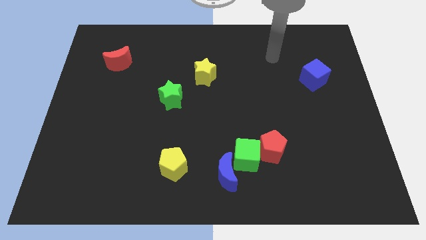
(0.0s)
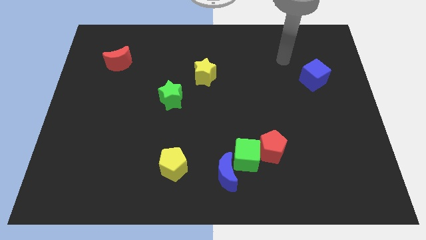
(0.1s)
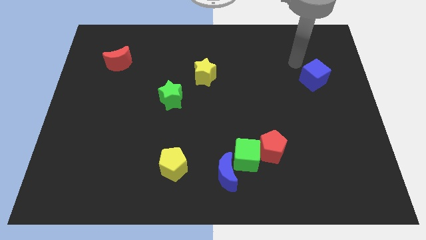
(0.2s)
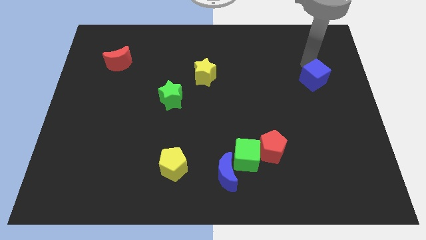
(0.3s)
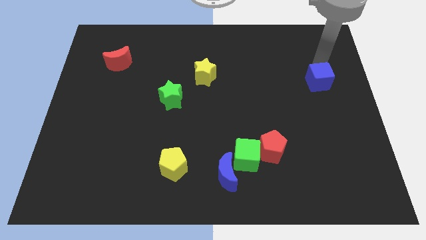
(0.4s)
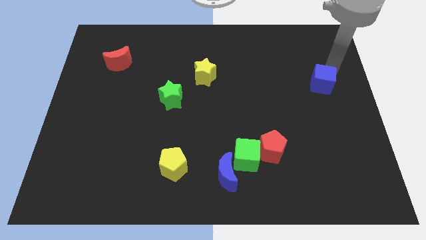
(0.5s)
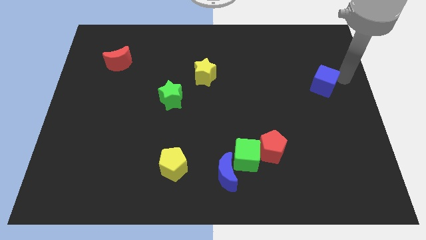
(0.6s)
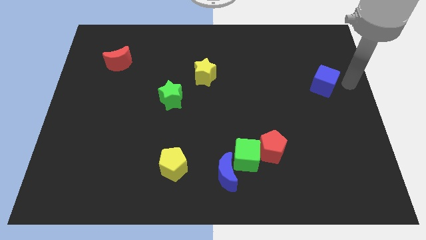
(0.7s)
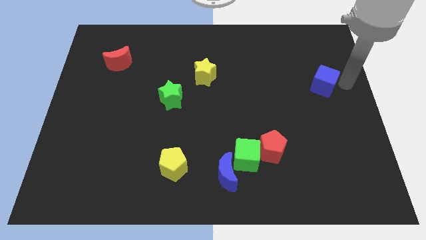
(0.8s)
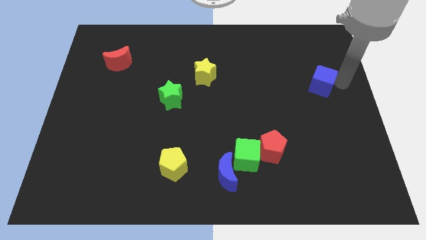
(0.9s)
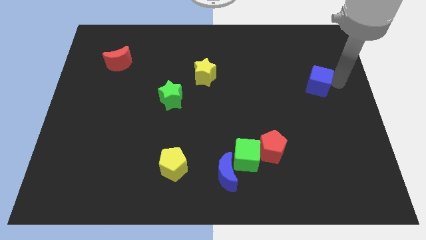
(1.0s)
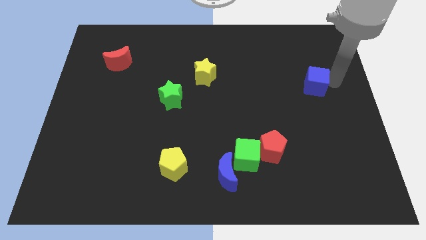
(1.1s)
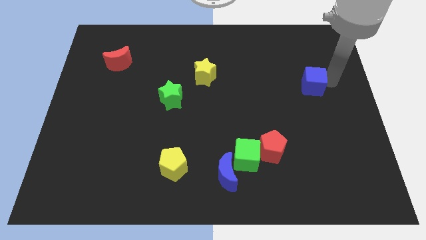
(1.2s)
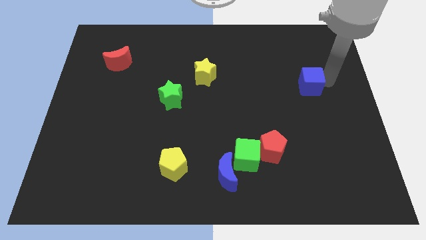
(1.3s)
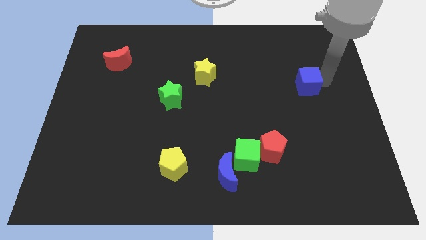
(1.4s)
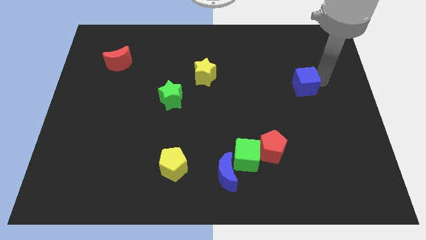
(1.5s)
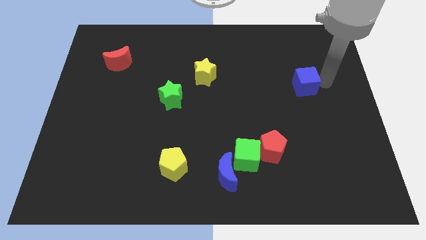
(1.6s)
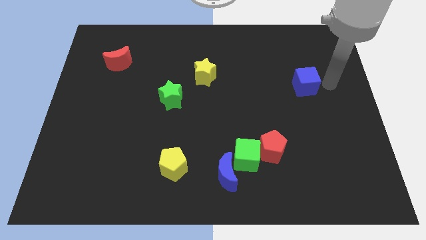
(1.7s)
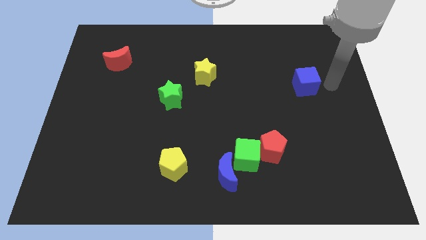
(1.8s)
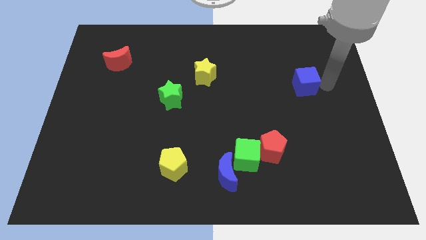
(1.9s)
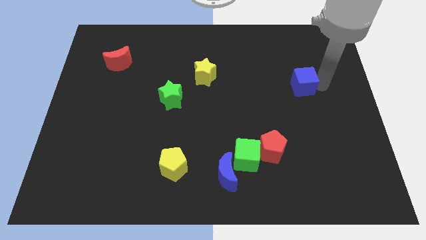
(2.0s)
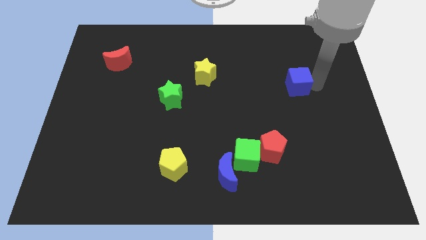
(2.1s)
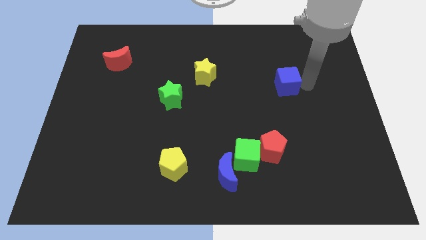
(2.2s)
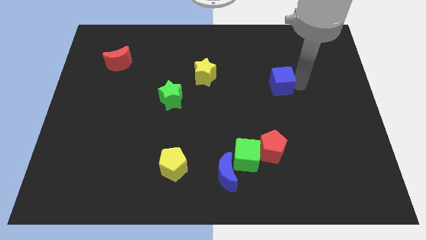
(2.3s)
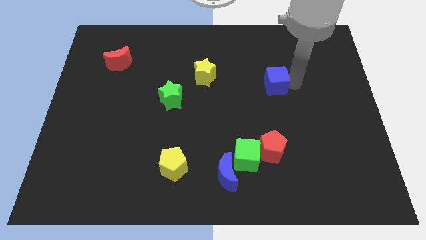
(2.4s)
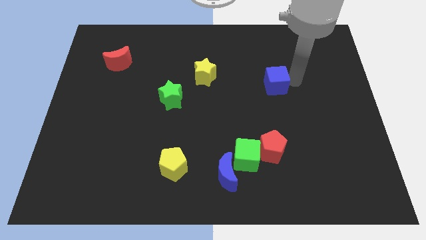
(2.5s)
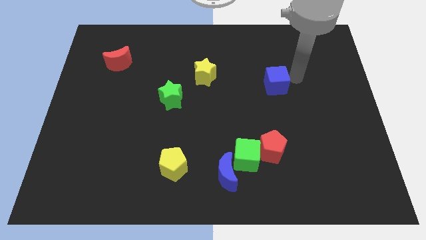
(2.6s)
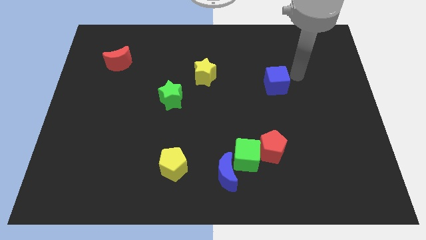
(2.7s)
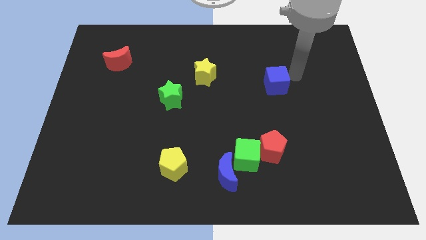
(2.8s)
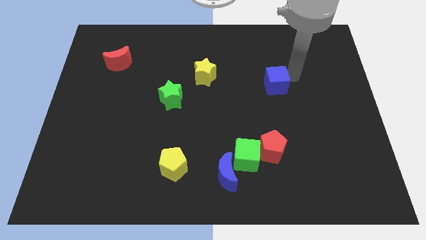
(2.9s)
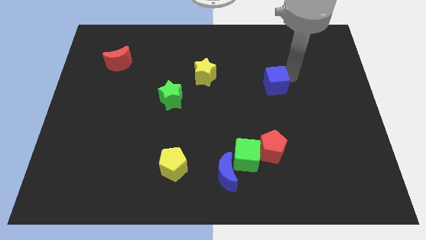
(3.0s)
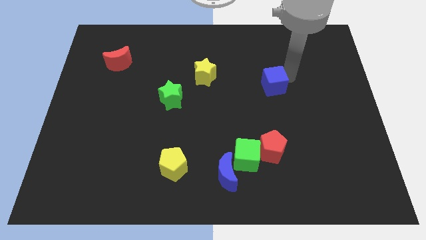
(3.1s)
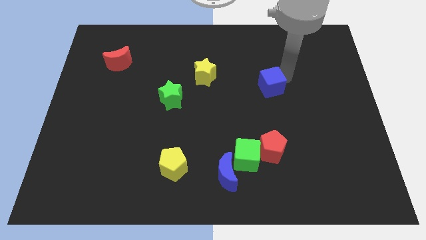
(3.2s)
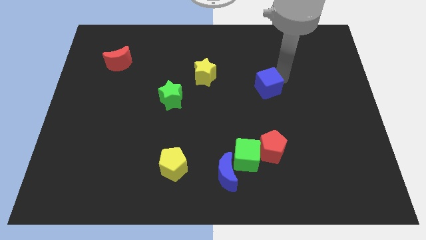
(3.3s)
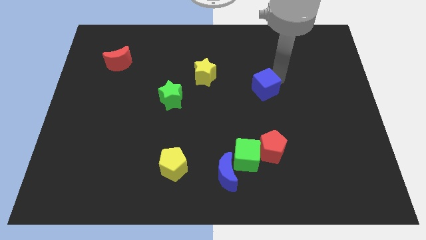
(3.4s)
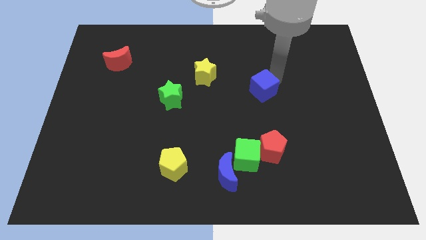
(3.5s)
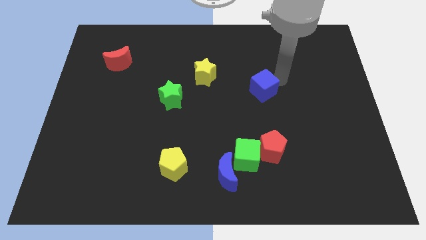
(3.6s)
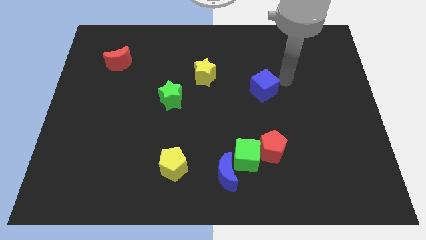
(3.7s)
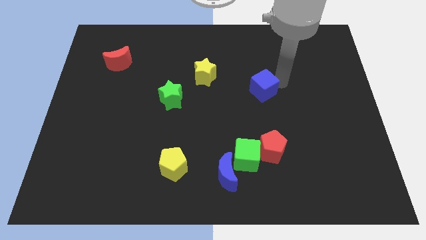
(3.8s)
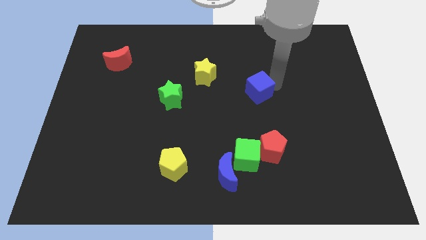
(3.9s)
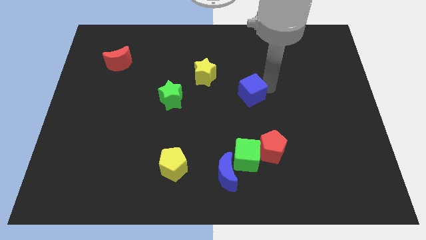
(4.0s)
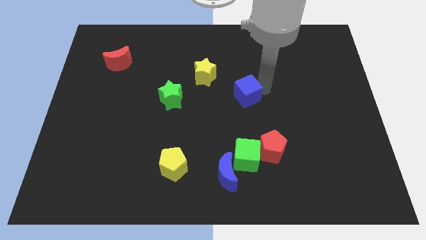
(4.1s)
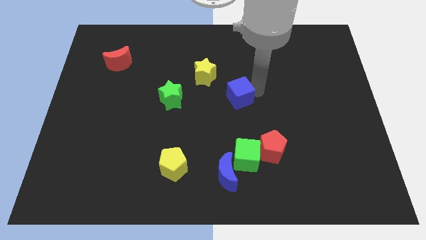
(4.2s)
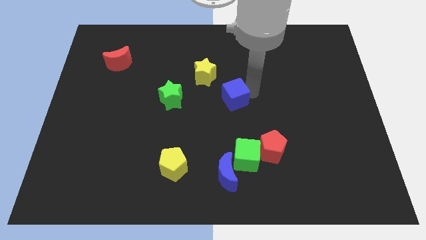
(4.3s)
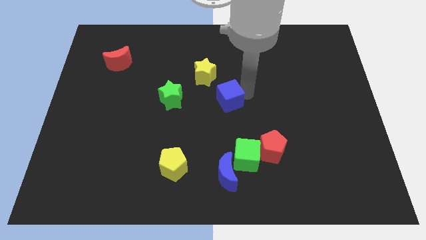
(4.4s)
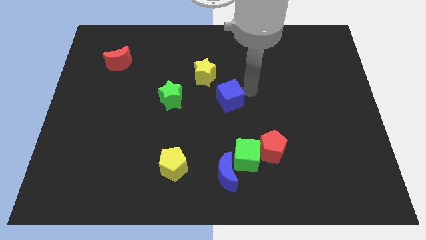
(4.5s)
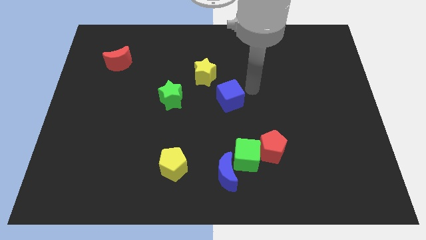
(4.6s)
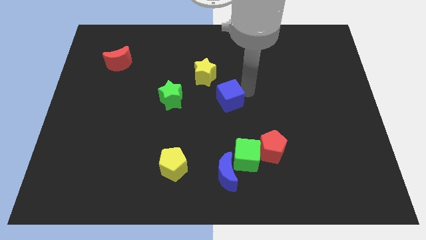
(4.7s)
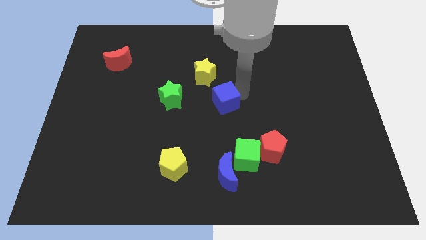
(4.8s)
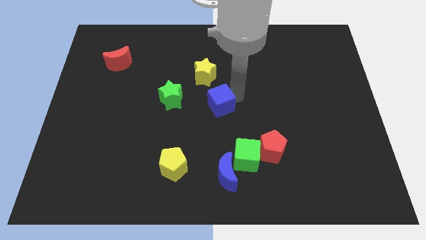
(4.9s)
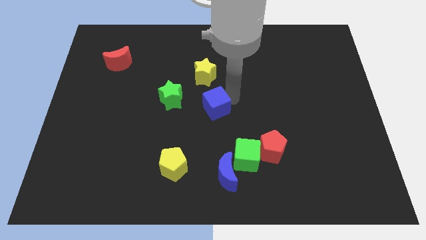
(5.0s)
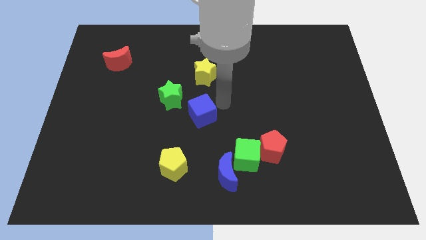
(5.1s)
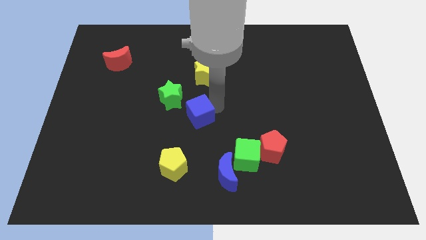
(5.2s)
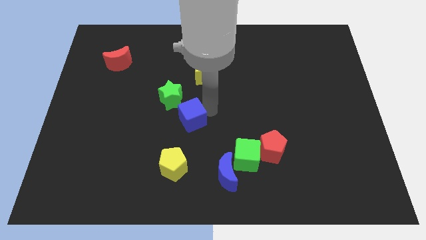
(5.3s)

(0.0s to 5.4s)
put the blue cube to the top of the yellow pentagon

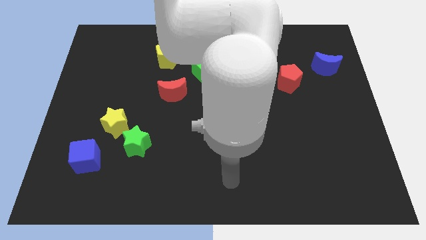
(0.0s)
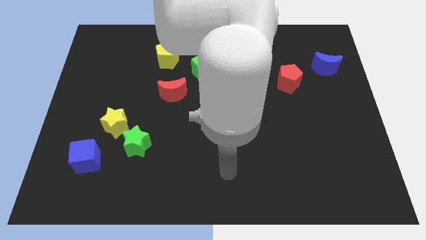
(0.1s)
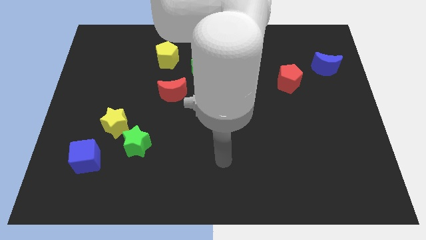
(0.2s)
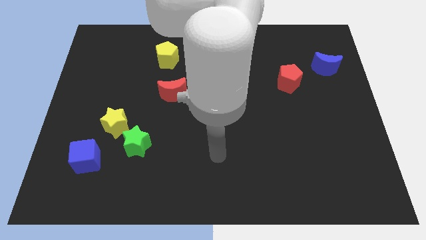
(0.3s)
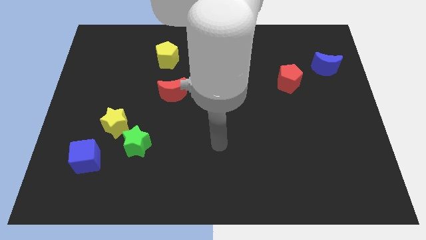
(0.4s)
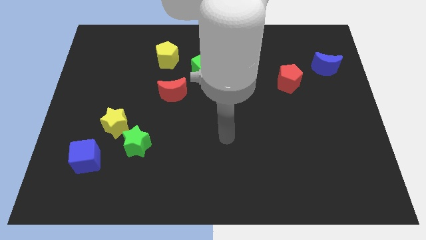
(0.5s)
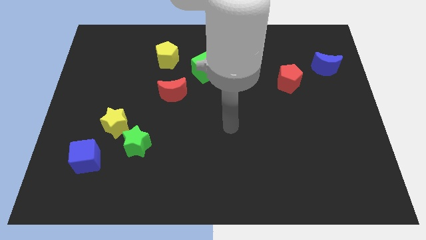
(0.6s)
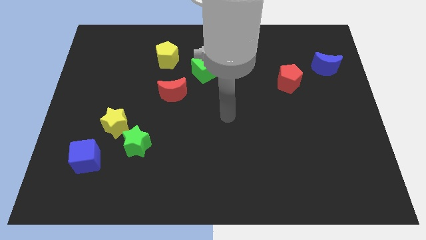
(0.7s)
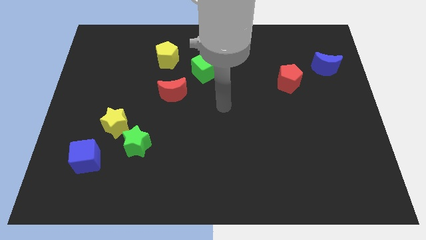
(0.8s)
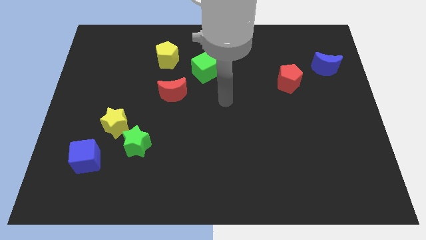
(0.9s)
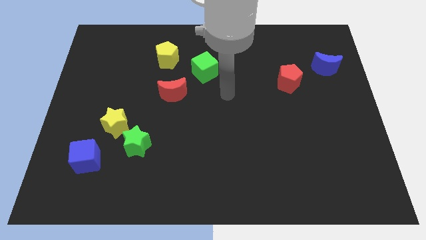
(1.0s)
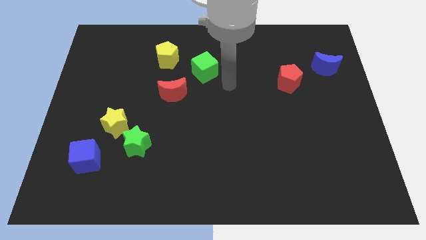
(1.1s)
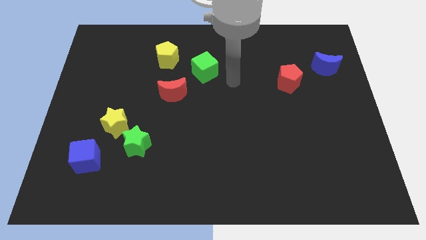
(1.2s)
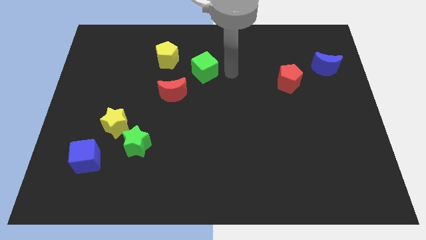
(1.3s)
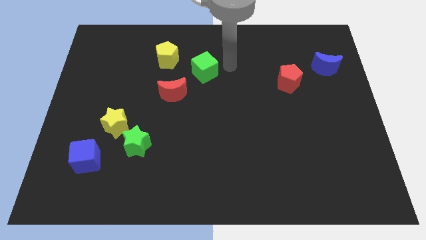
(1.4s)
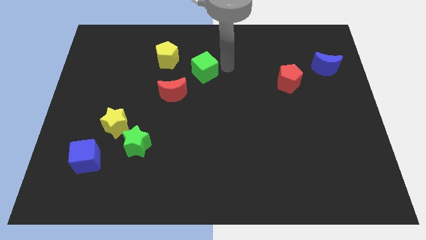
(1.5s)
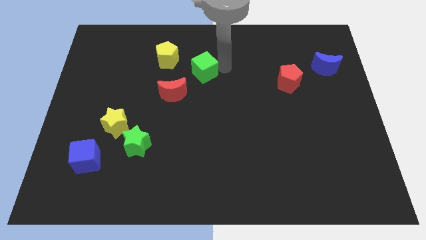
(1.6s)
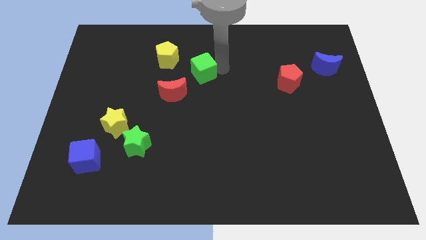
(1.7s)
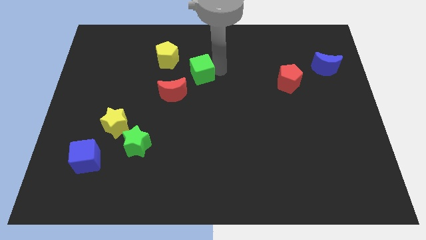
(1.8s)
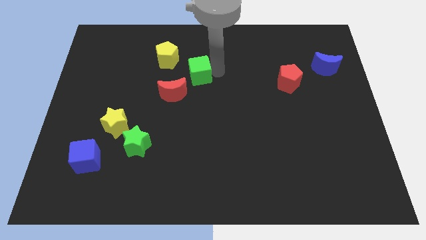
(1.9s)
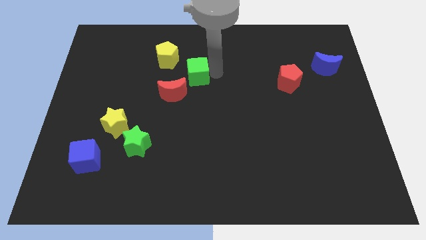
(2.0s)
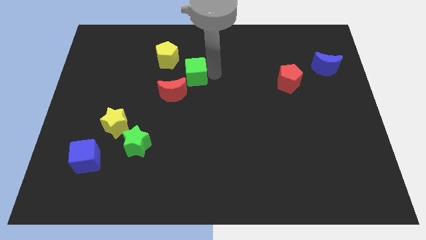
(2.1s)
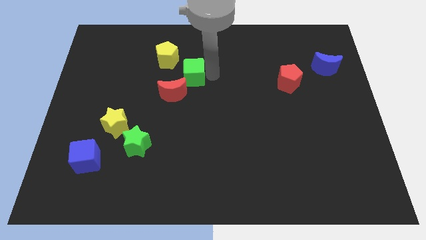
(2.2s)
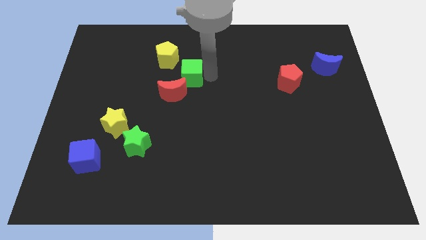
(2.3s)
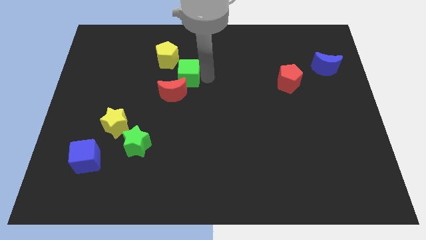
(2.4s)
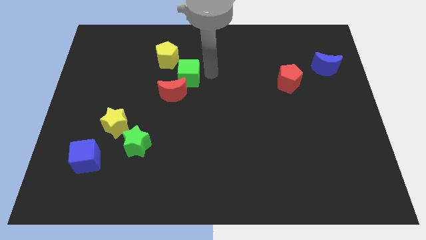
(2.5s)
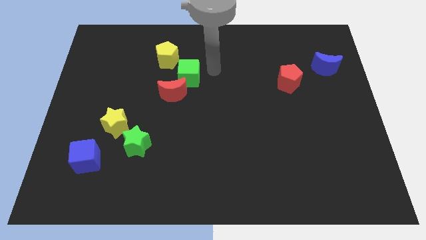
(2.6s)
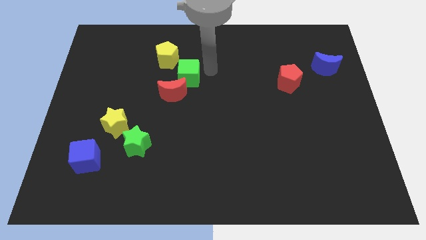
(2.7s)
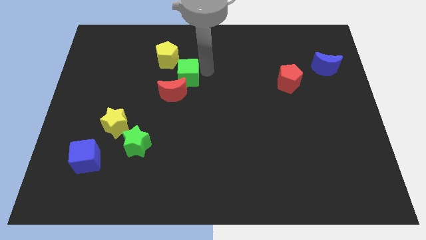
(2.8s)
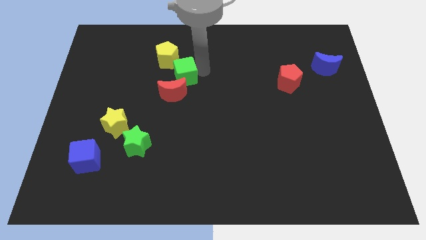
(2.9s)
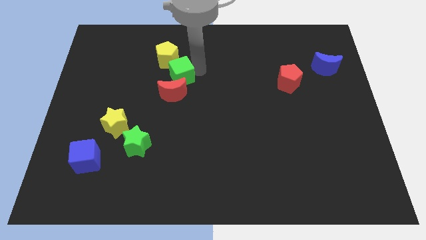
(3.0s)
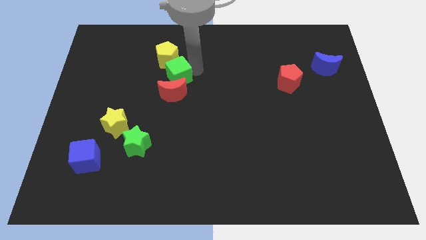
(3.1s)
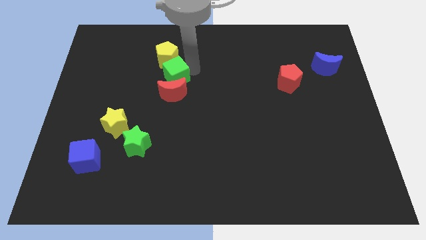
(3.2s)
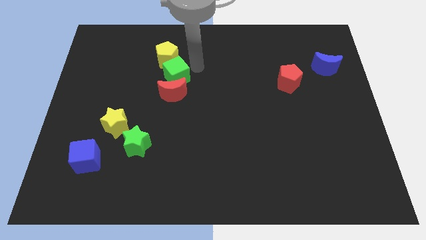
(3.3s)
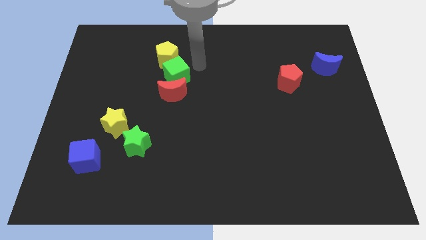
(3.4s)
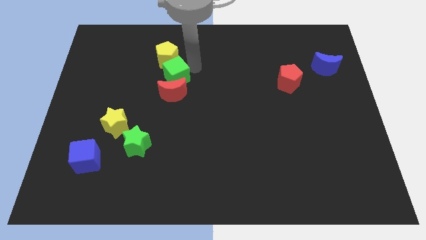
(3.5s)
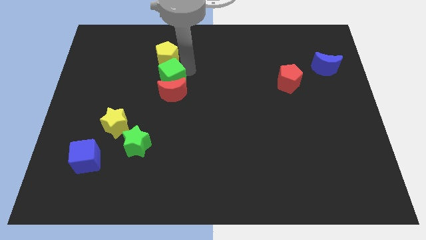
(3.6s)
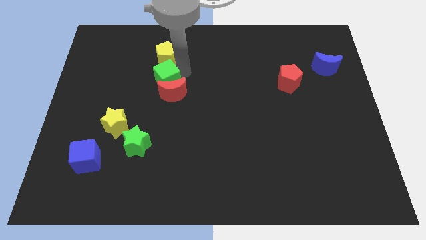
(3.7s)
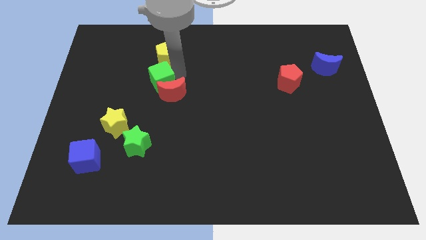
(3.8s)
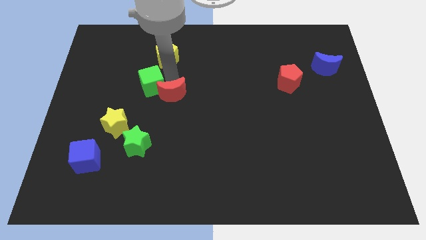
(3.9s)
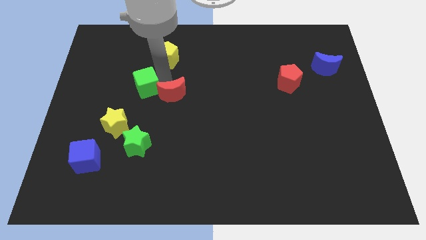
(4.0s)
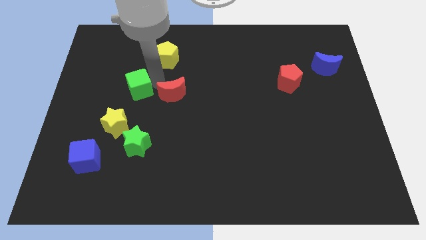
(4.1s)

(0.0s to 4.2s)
put the green cube to the top of the yellow star
